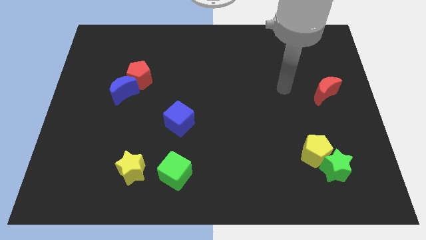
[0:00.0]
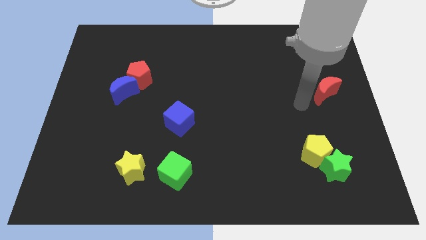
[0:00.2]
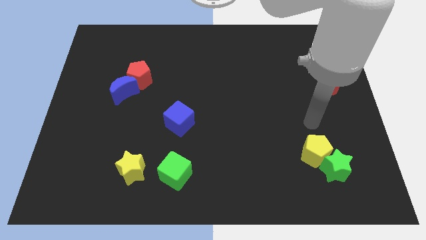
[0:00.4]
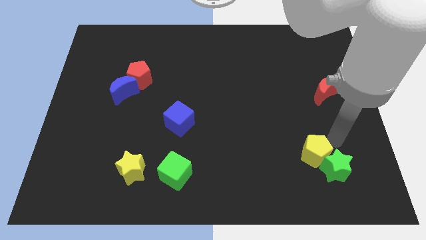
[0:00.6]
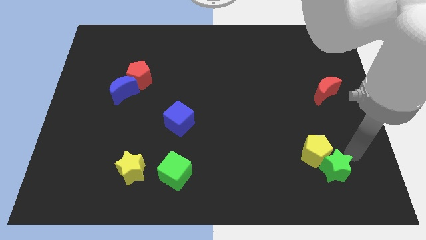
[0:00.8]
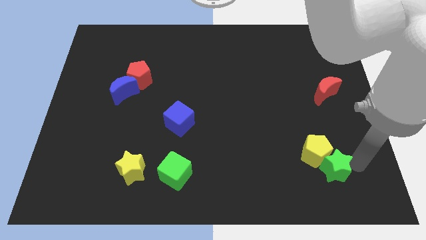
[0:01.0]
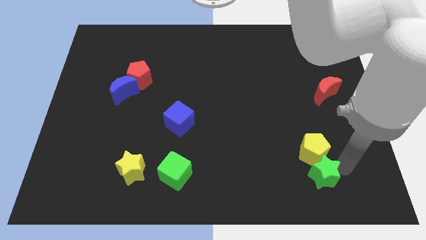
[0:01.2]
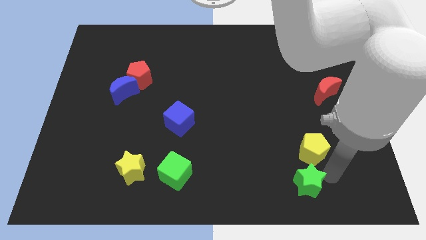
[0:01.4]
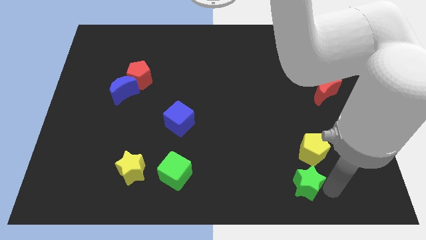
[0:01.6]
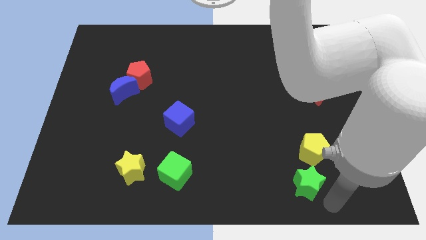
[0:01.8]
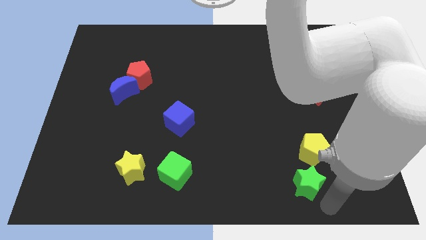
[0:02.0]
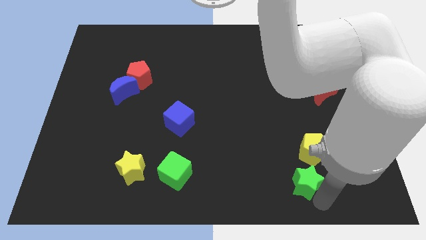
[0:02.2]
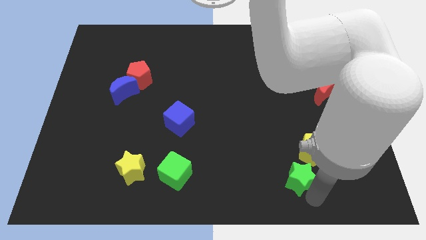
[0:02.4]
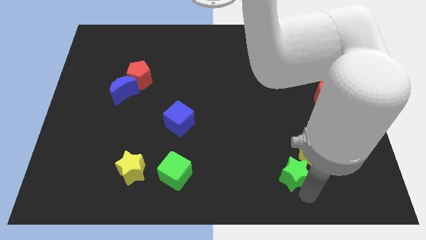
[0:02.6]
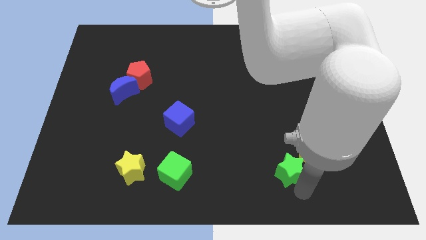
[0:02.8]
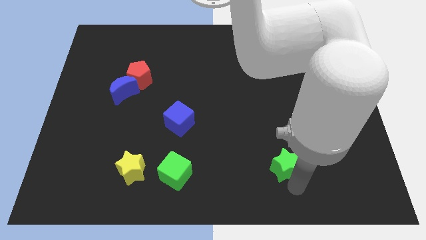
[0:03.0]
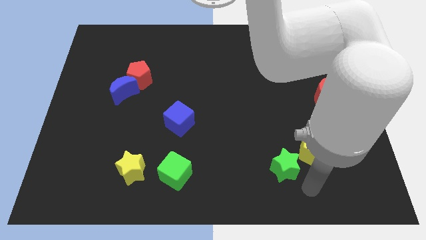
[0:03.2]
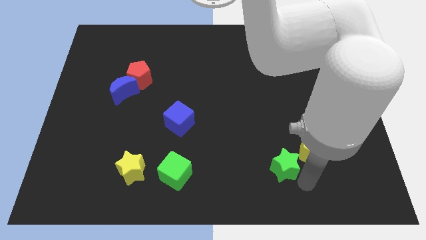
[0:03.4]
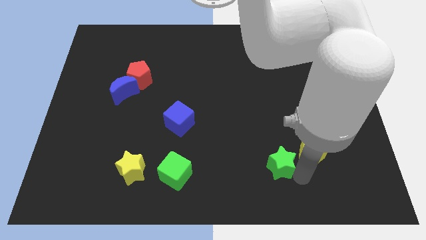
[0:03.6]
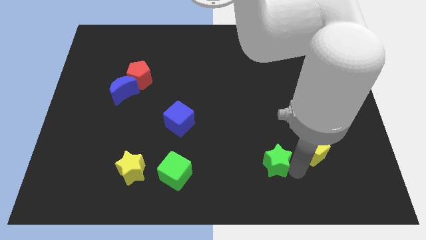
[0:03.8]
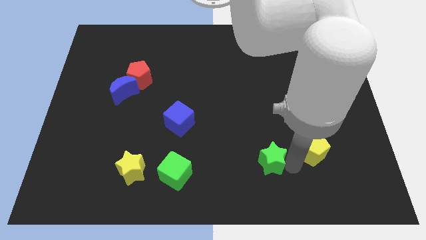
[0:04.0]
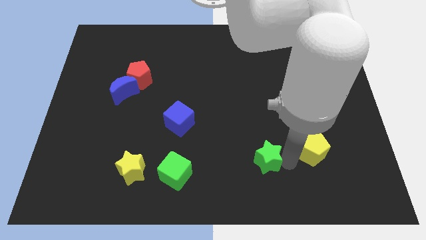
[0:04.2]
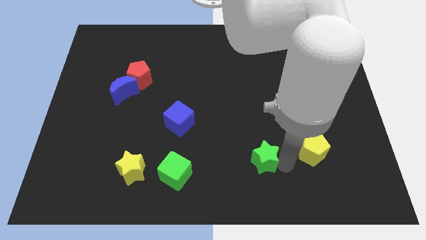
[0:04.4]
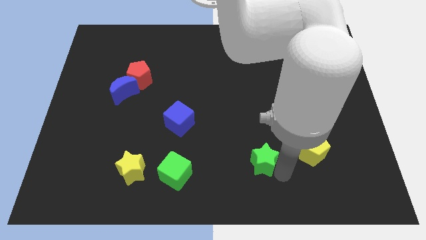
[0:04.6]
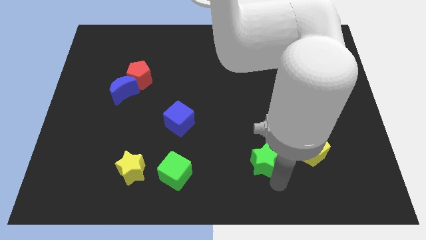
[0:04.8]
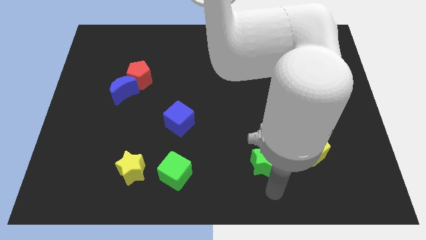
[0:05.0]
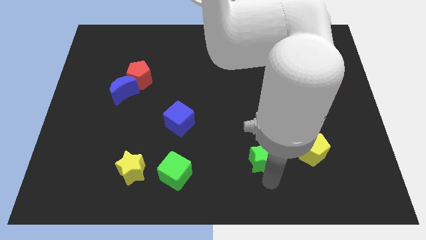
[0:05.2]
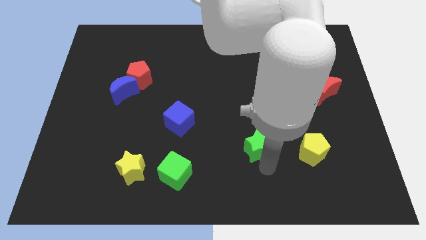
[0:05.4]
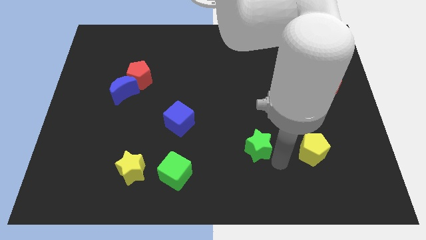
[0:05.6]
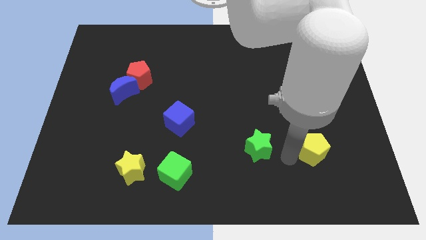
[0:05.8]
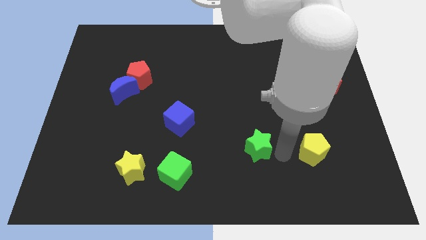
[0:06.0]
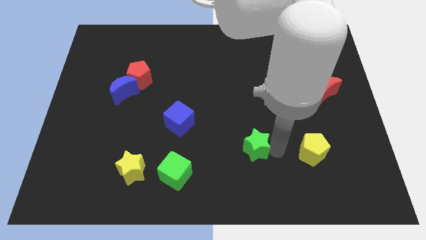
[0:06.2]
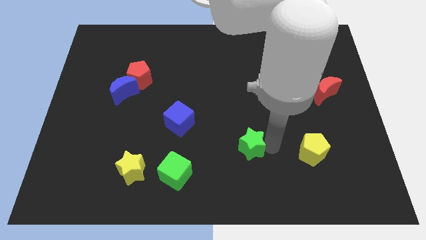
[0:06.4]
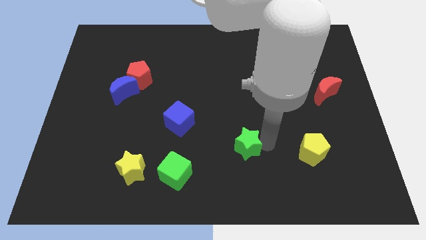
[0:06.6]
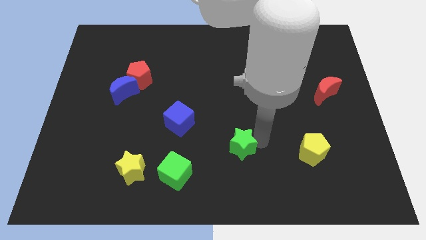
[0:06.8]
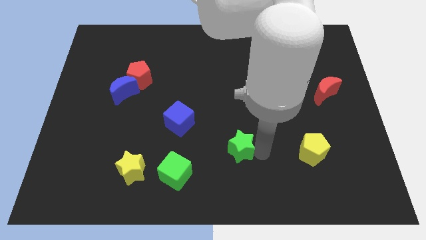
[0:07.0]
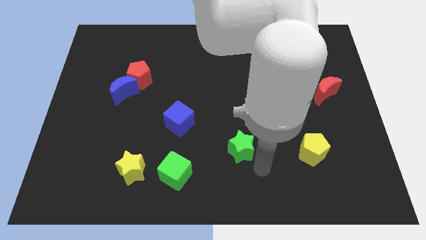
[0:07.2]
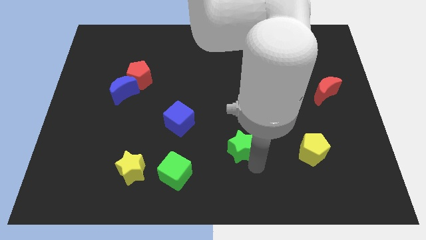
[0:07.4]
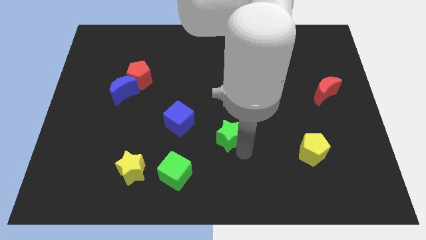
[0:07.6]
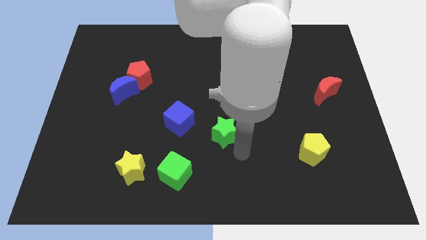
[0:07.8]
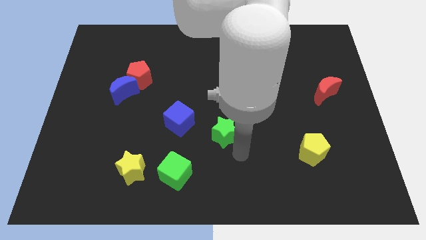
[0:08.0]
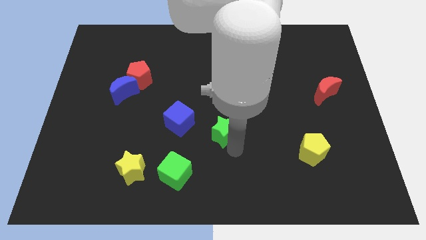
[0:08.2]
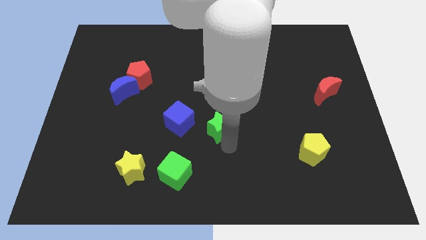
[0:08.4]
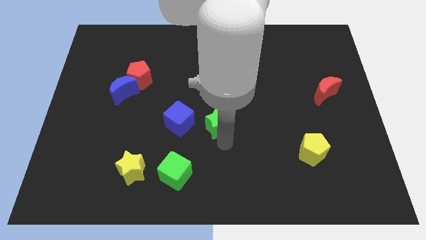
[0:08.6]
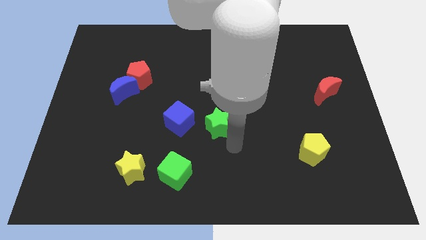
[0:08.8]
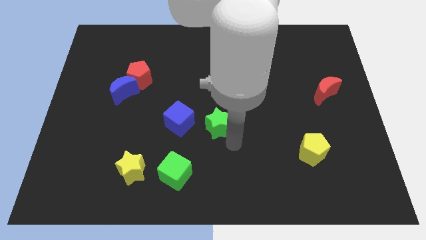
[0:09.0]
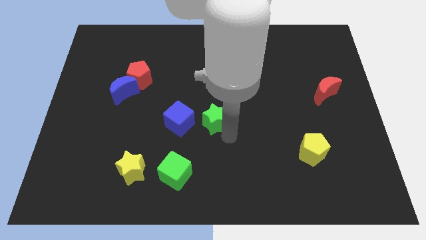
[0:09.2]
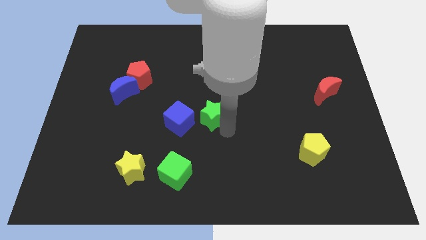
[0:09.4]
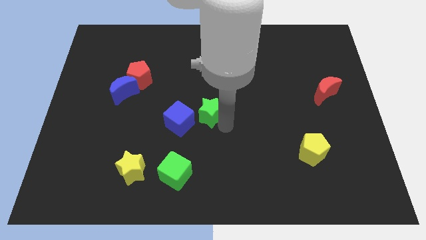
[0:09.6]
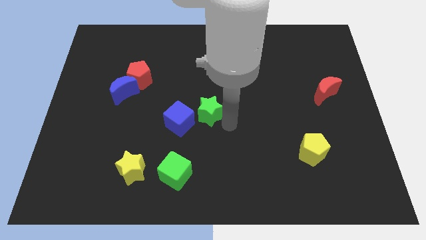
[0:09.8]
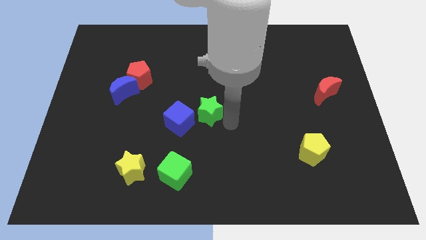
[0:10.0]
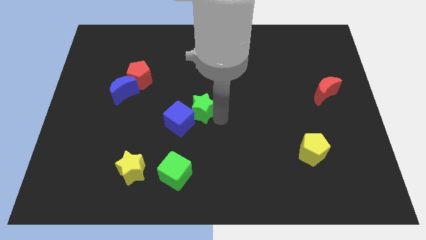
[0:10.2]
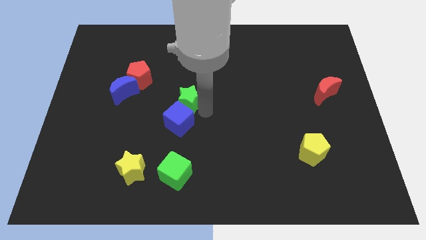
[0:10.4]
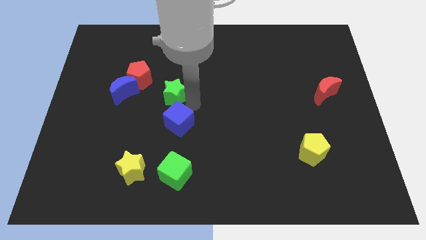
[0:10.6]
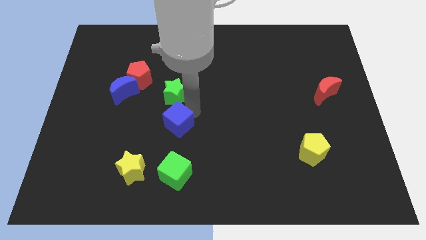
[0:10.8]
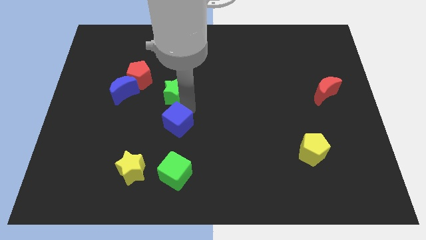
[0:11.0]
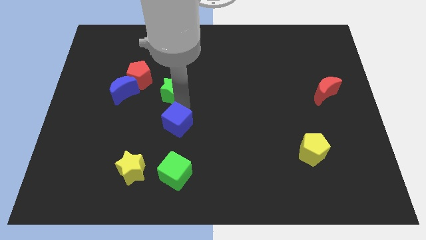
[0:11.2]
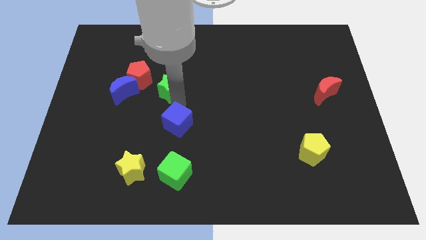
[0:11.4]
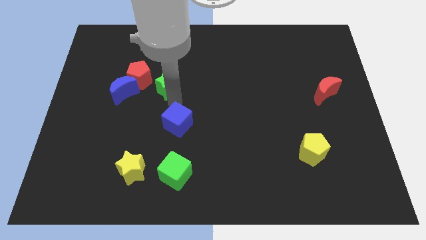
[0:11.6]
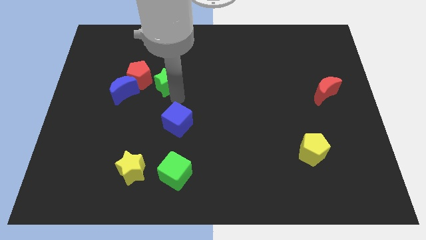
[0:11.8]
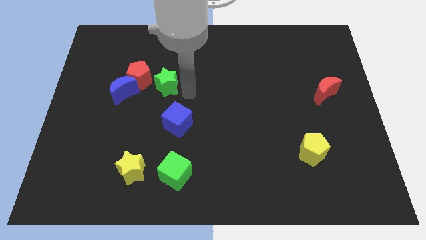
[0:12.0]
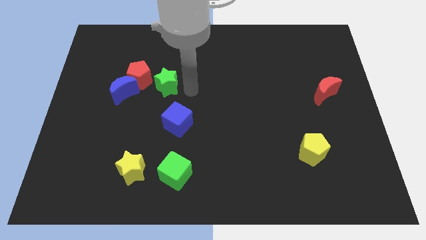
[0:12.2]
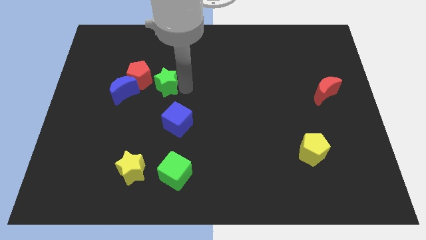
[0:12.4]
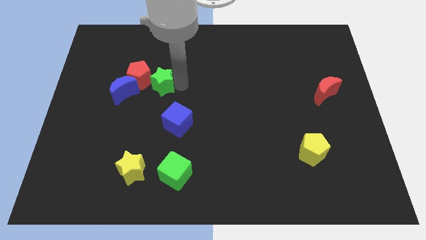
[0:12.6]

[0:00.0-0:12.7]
put the green star close to the red pentagon

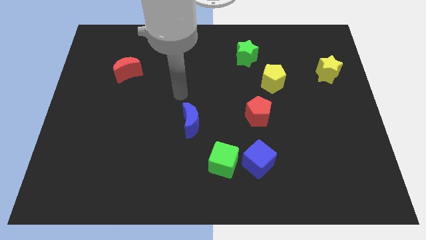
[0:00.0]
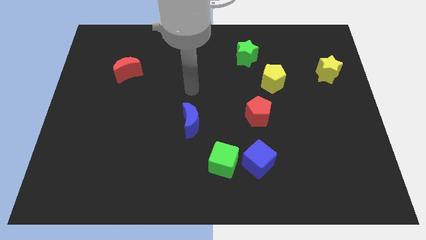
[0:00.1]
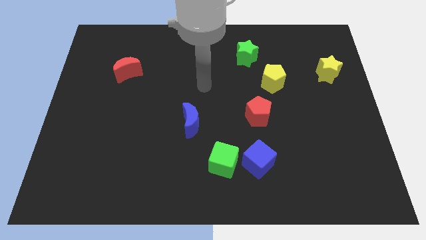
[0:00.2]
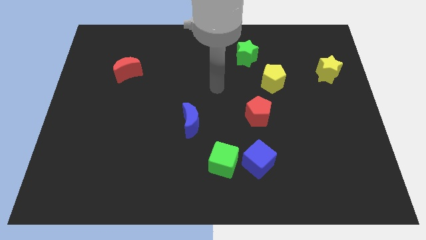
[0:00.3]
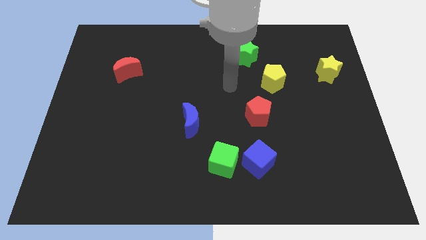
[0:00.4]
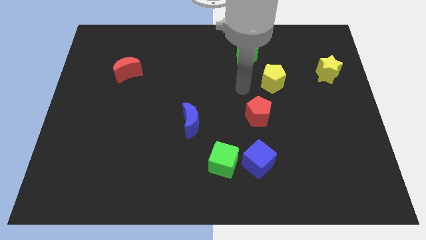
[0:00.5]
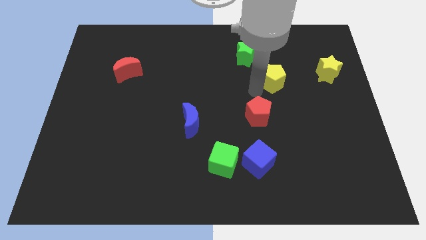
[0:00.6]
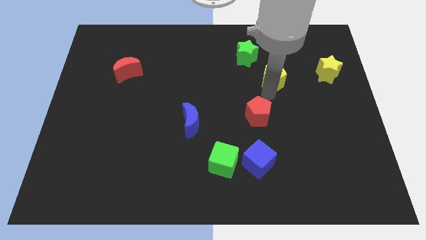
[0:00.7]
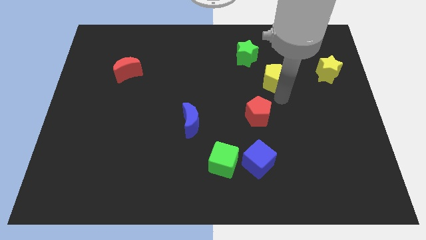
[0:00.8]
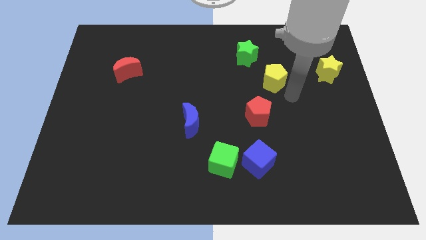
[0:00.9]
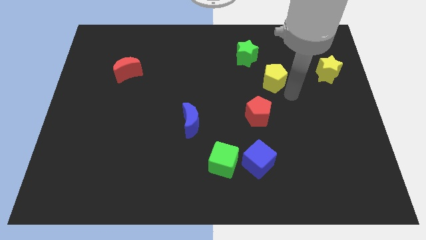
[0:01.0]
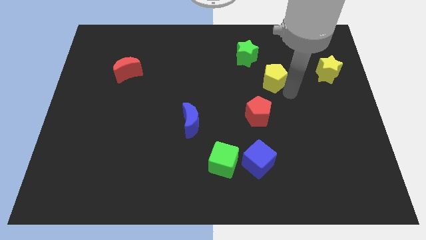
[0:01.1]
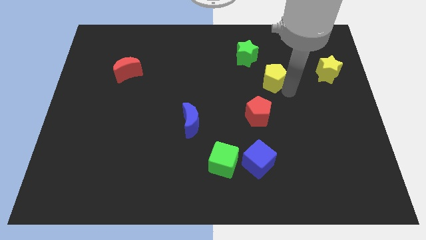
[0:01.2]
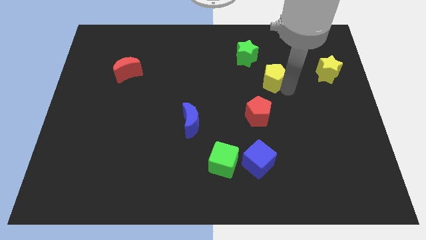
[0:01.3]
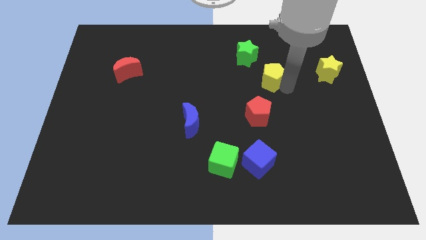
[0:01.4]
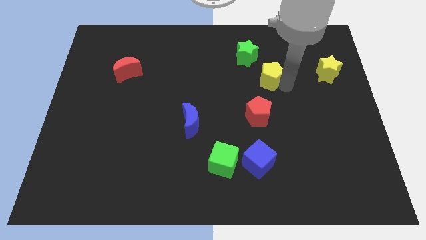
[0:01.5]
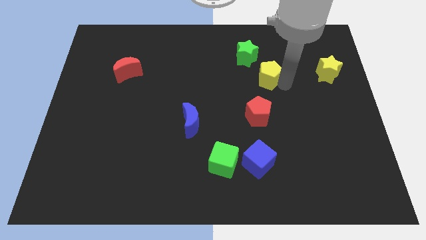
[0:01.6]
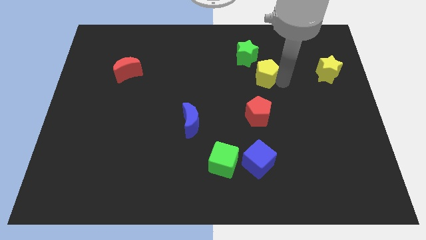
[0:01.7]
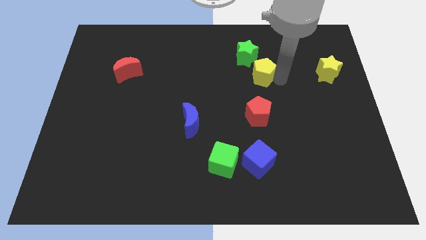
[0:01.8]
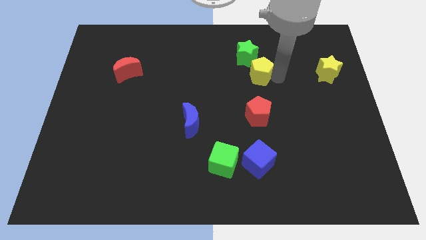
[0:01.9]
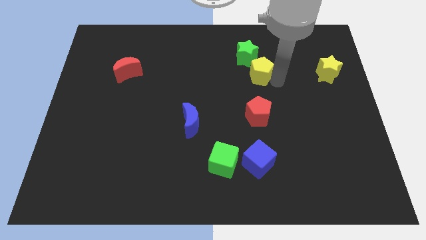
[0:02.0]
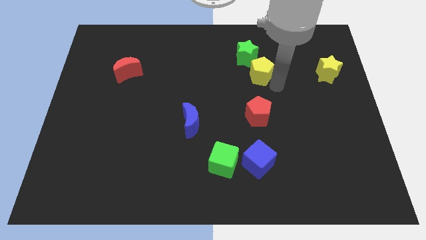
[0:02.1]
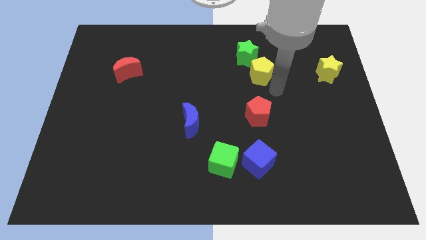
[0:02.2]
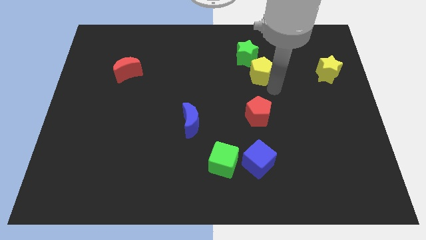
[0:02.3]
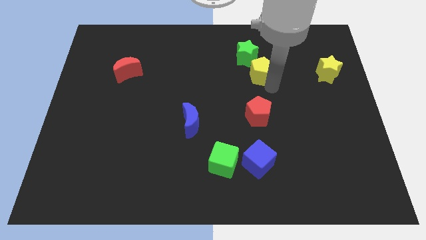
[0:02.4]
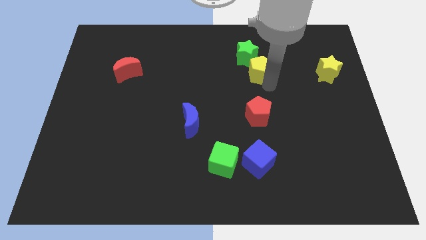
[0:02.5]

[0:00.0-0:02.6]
push the yellow pentagon next to the green star
